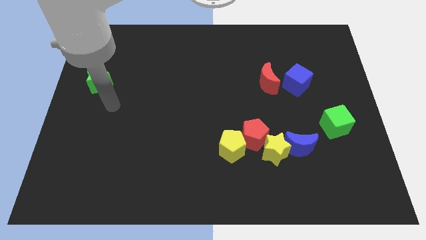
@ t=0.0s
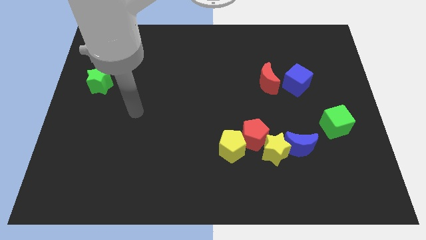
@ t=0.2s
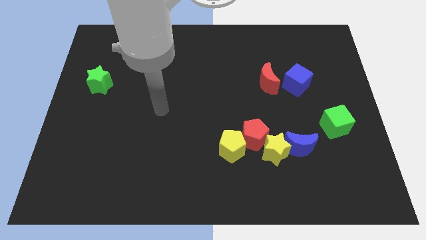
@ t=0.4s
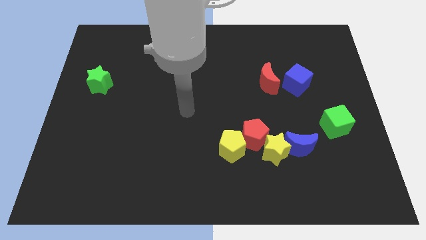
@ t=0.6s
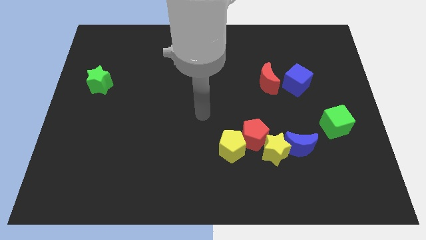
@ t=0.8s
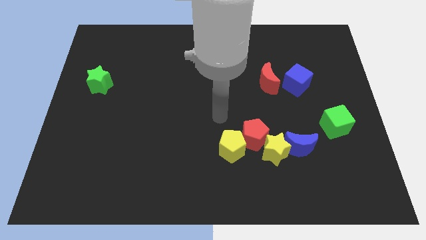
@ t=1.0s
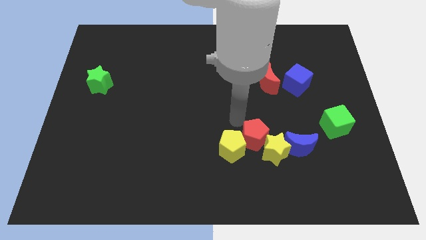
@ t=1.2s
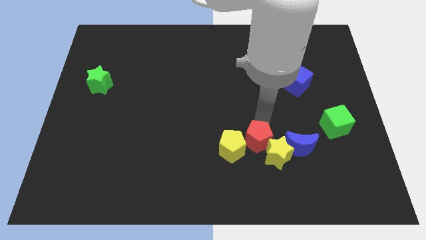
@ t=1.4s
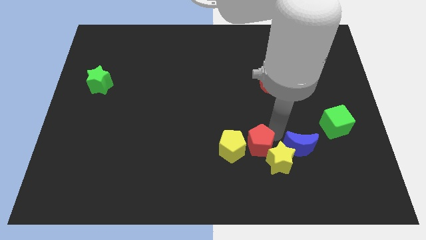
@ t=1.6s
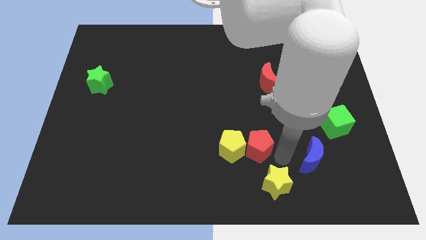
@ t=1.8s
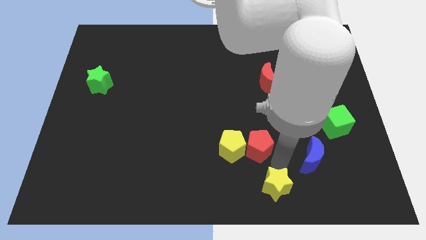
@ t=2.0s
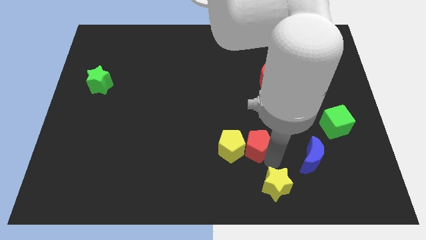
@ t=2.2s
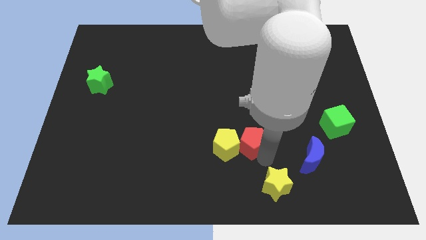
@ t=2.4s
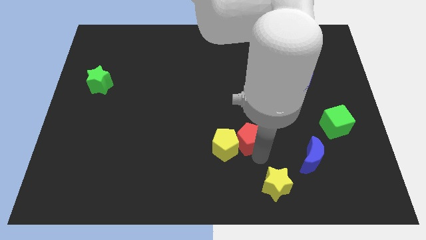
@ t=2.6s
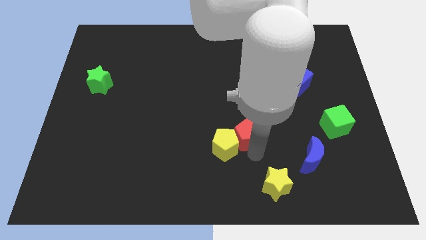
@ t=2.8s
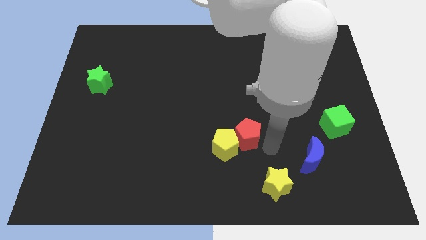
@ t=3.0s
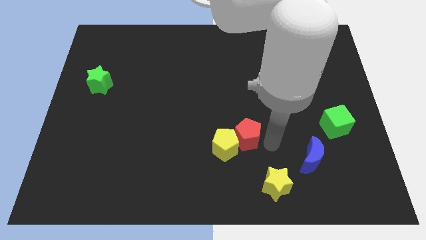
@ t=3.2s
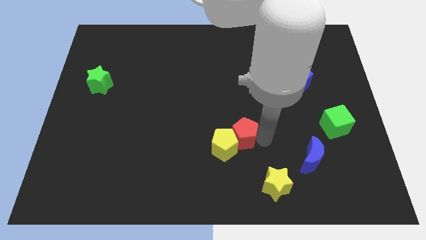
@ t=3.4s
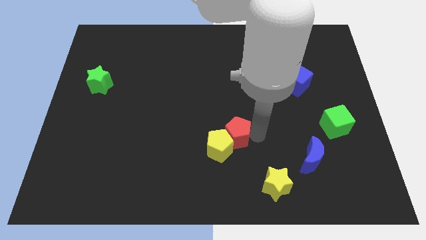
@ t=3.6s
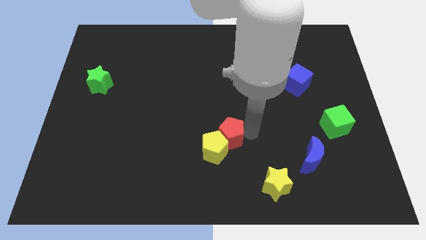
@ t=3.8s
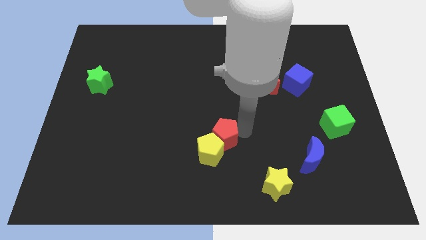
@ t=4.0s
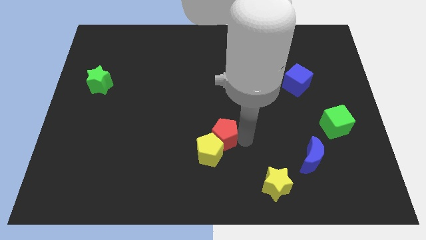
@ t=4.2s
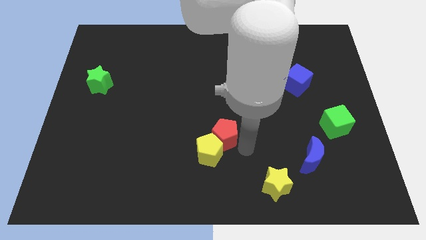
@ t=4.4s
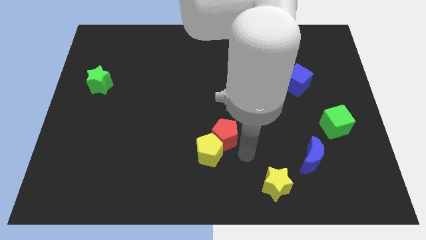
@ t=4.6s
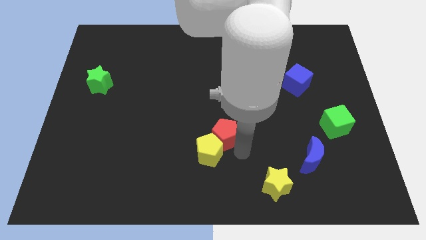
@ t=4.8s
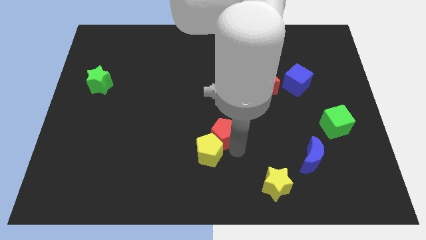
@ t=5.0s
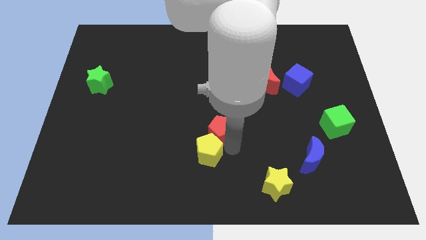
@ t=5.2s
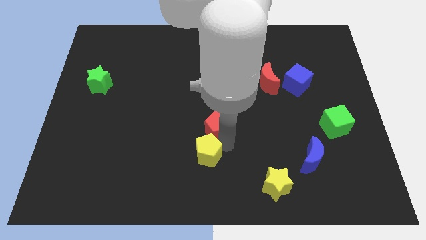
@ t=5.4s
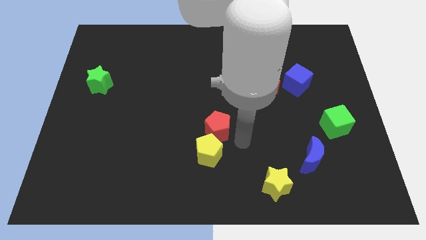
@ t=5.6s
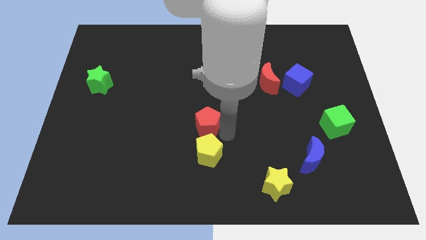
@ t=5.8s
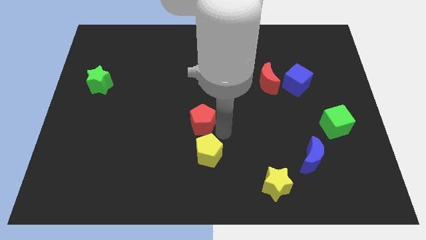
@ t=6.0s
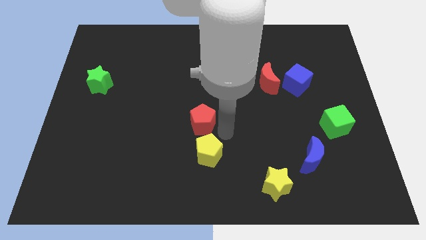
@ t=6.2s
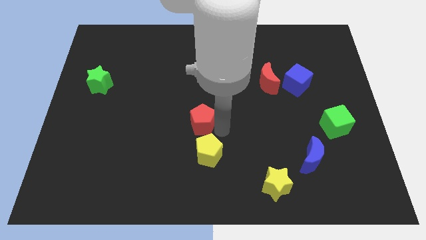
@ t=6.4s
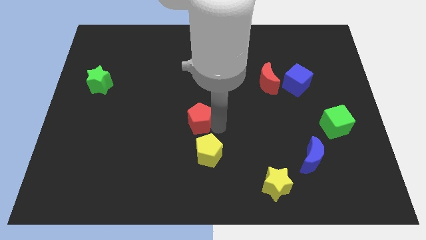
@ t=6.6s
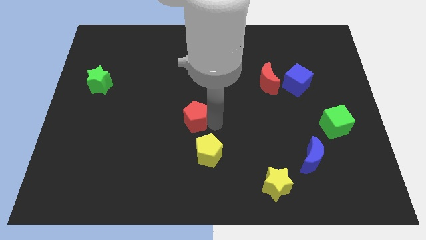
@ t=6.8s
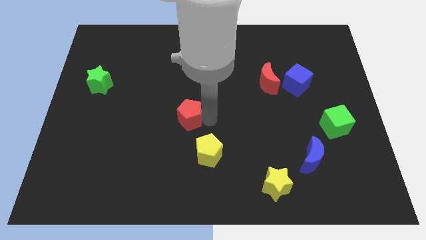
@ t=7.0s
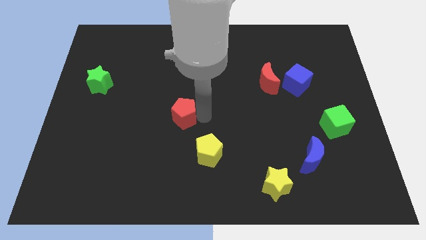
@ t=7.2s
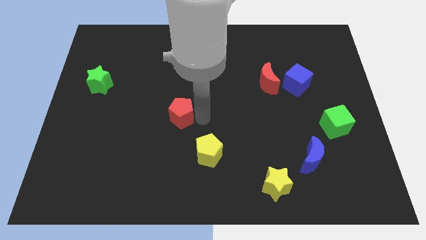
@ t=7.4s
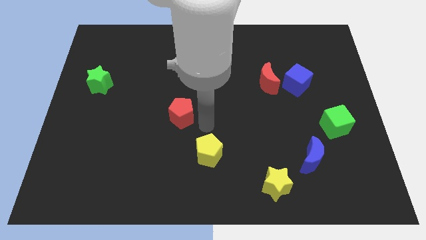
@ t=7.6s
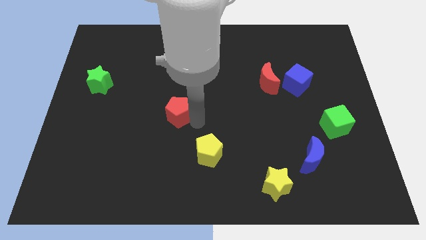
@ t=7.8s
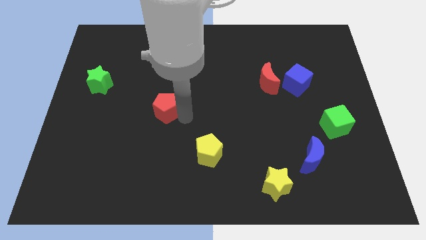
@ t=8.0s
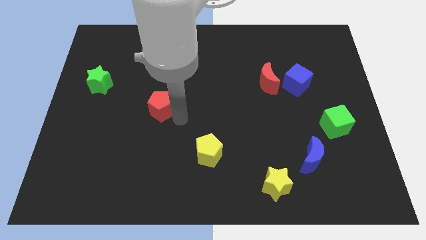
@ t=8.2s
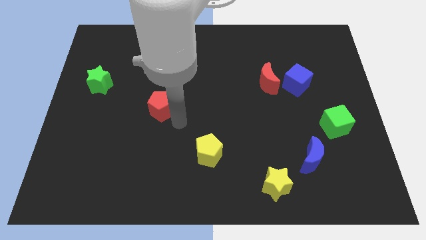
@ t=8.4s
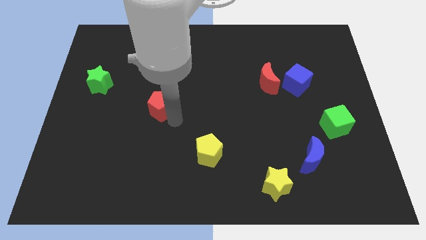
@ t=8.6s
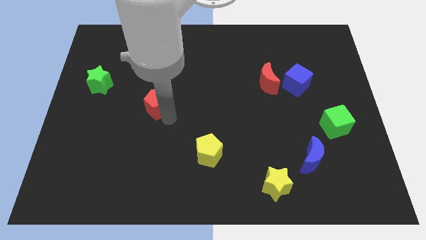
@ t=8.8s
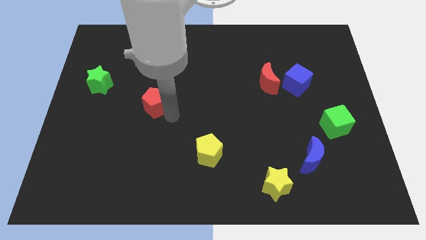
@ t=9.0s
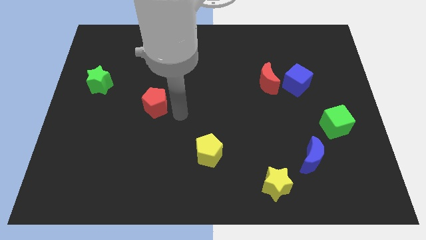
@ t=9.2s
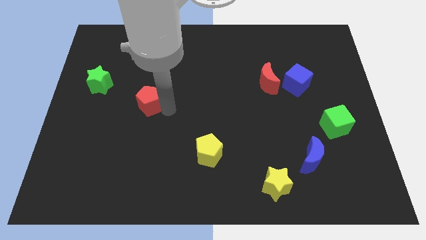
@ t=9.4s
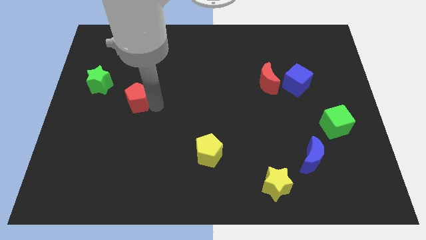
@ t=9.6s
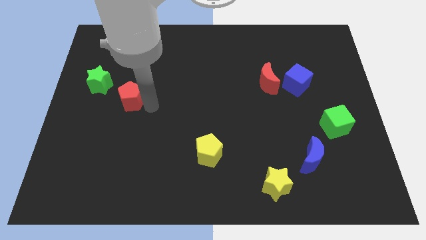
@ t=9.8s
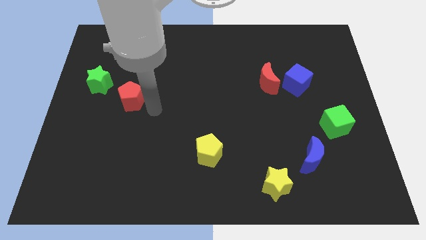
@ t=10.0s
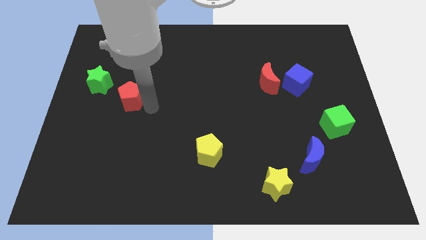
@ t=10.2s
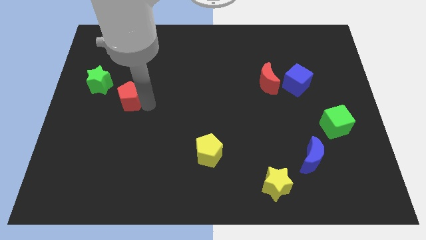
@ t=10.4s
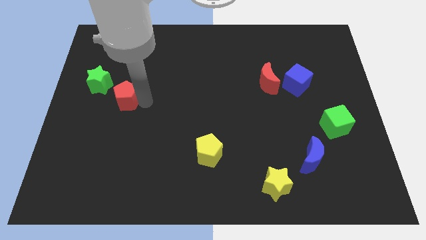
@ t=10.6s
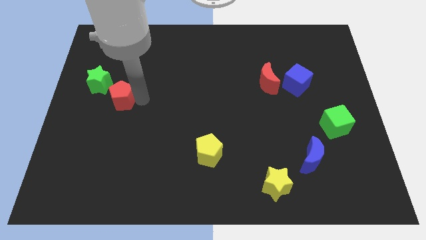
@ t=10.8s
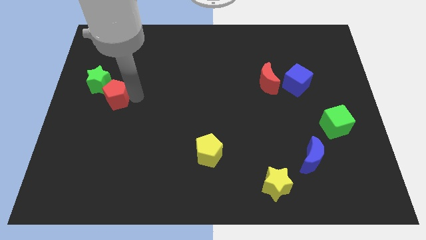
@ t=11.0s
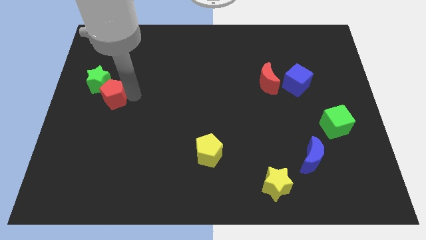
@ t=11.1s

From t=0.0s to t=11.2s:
move the red pentagon towards the green star

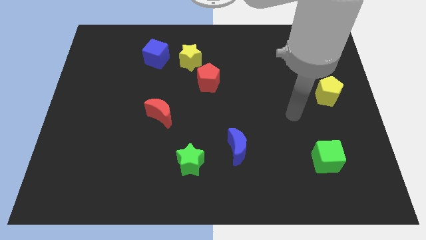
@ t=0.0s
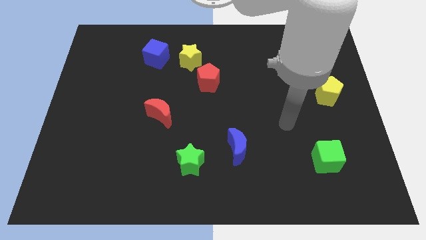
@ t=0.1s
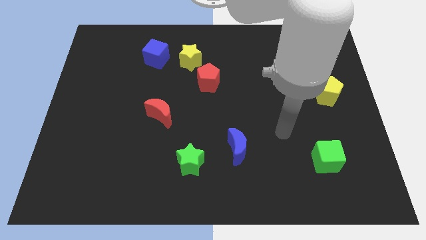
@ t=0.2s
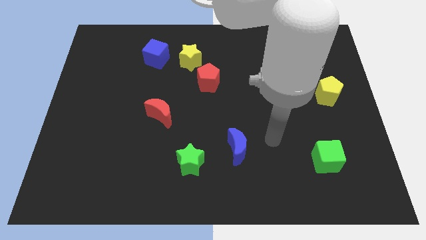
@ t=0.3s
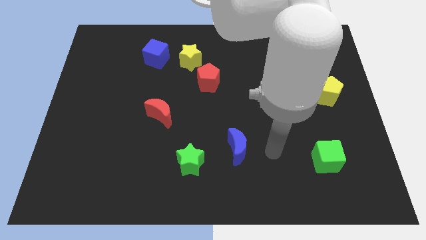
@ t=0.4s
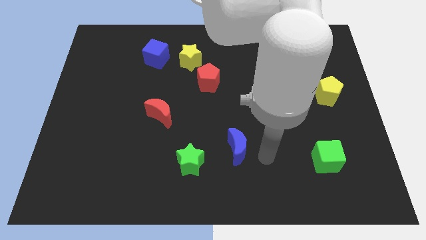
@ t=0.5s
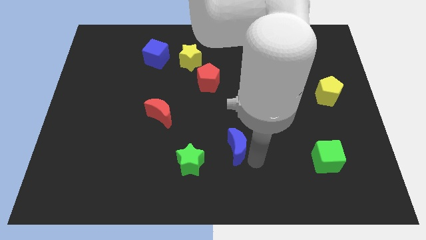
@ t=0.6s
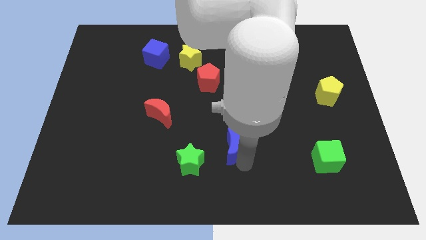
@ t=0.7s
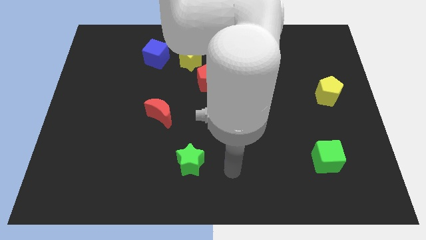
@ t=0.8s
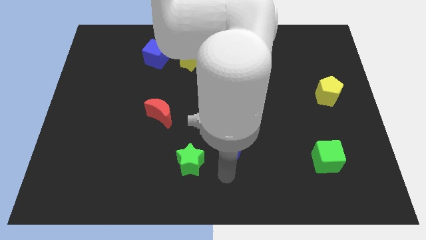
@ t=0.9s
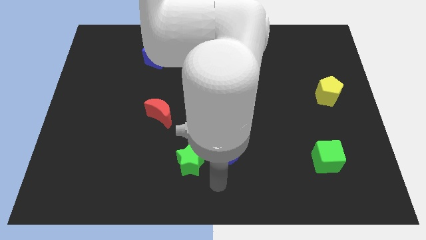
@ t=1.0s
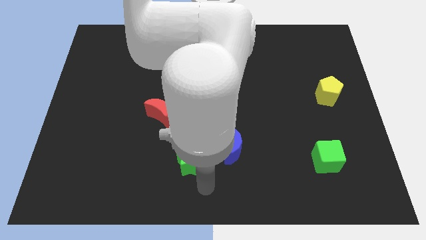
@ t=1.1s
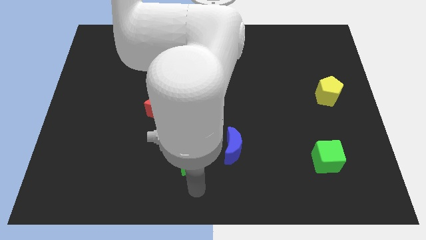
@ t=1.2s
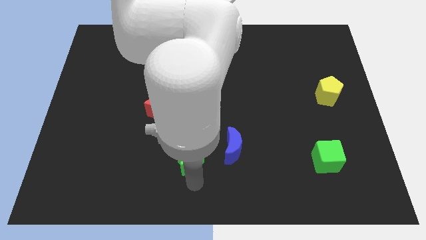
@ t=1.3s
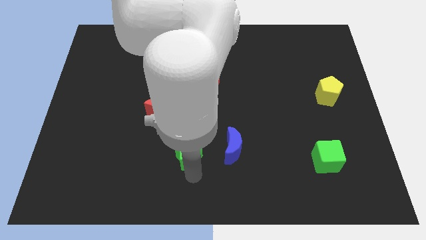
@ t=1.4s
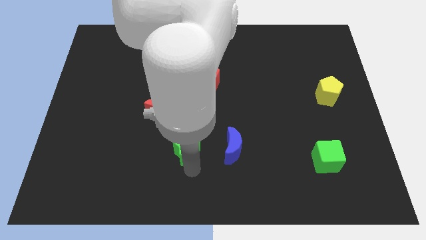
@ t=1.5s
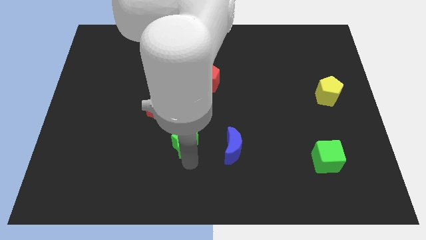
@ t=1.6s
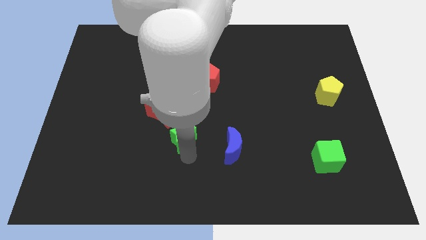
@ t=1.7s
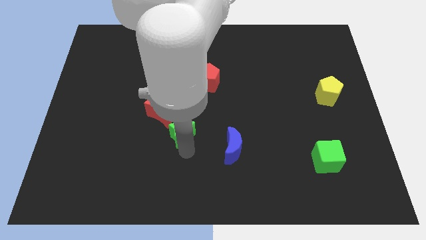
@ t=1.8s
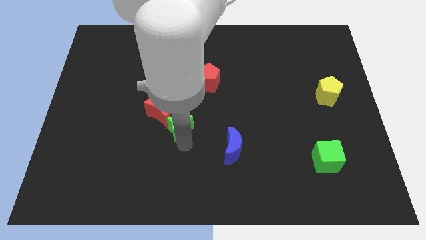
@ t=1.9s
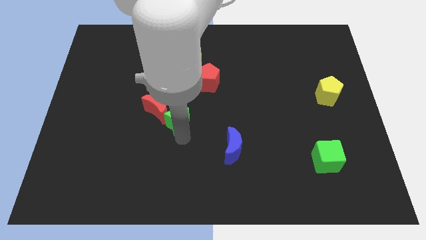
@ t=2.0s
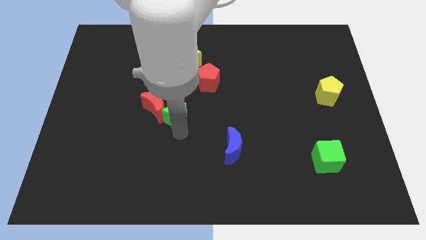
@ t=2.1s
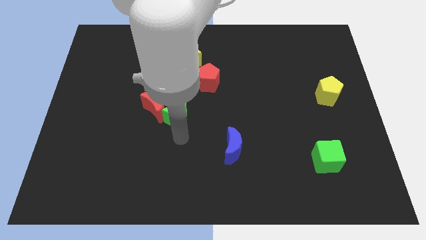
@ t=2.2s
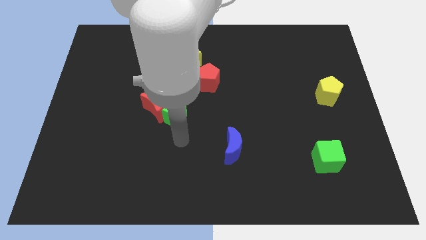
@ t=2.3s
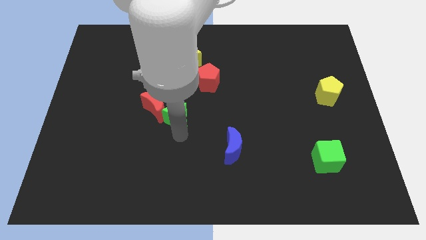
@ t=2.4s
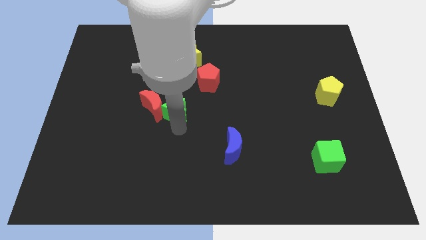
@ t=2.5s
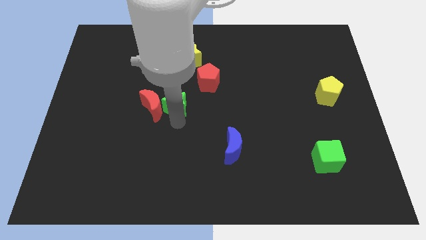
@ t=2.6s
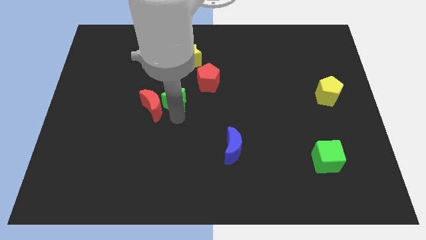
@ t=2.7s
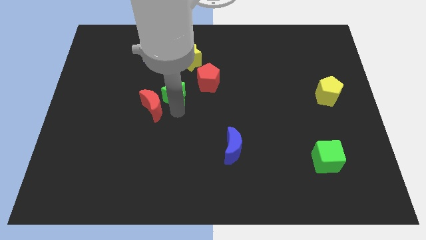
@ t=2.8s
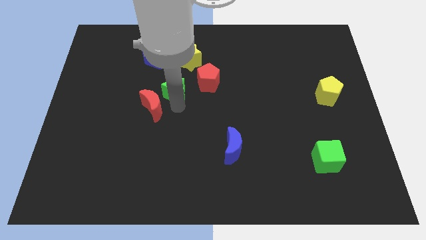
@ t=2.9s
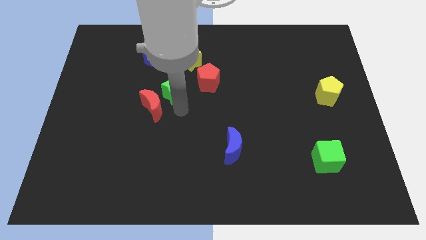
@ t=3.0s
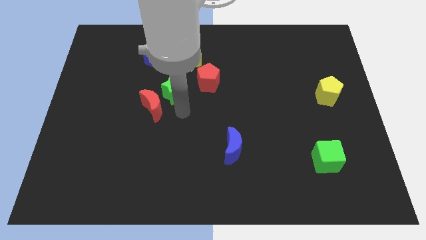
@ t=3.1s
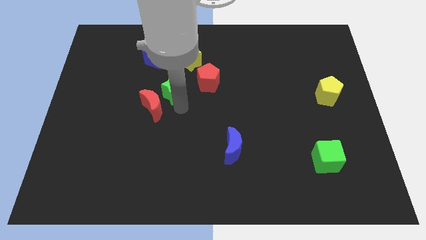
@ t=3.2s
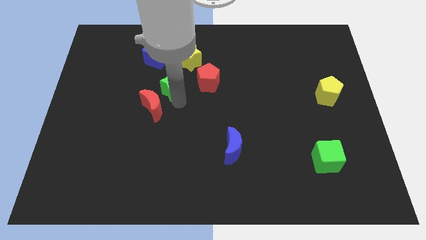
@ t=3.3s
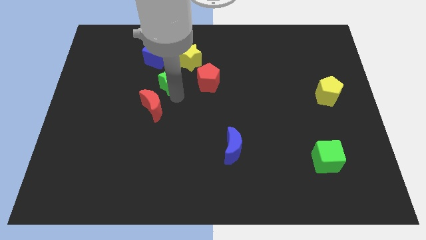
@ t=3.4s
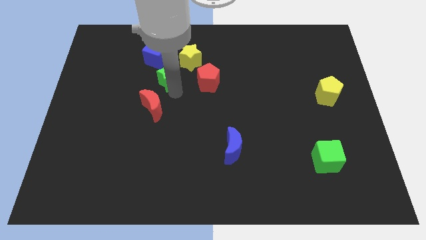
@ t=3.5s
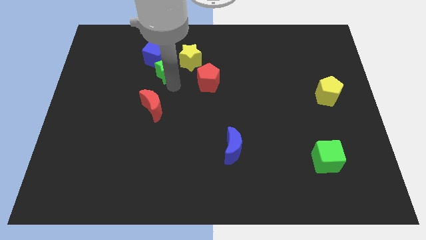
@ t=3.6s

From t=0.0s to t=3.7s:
put the green star next to the blue cube
